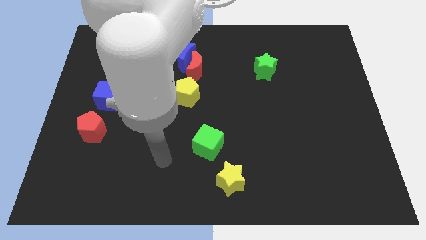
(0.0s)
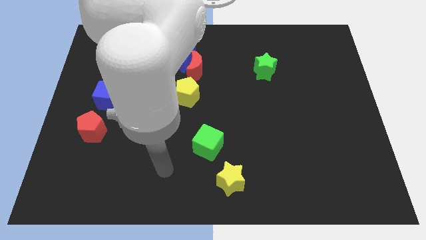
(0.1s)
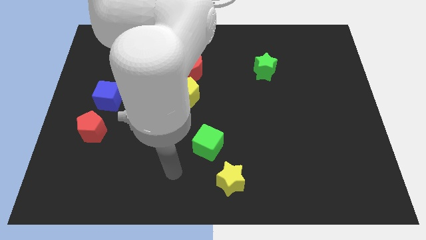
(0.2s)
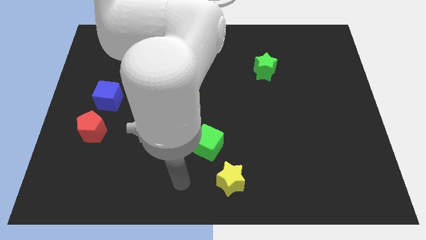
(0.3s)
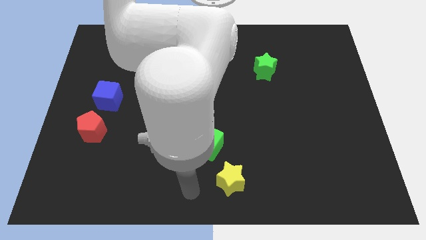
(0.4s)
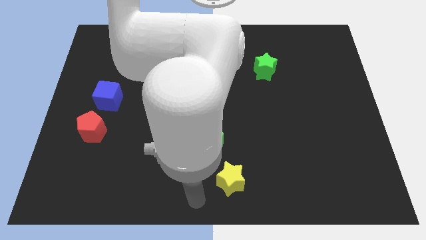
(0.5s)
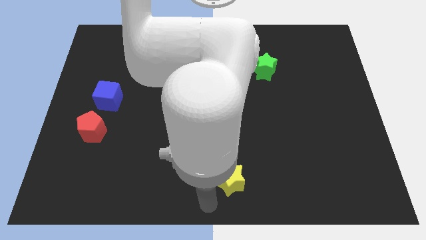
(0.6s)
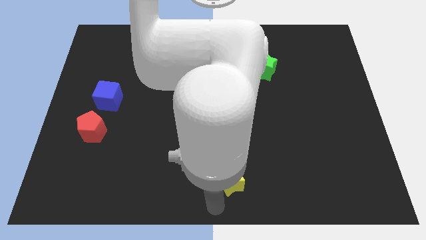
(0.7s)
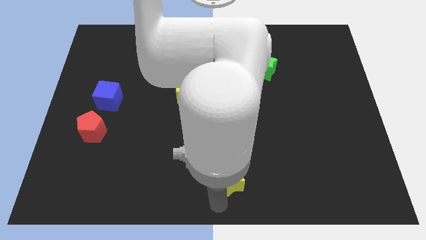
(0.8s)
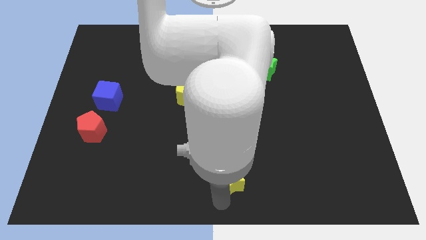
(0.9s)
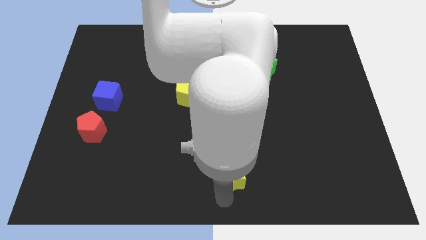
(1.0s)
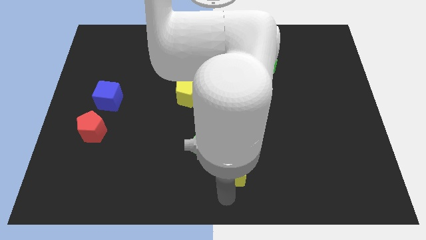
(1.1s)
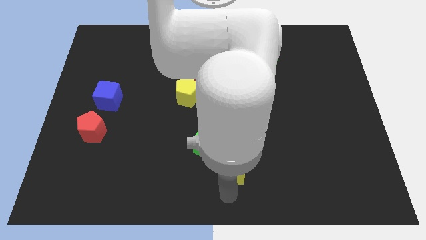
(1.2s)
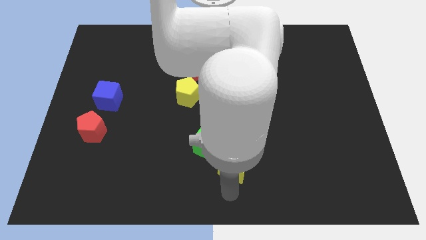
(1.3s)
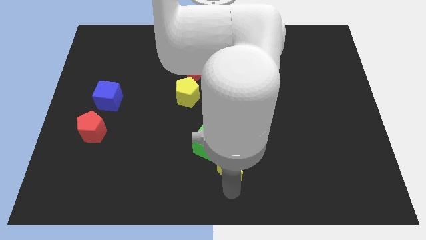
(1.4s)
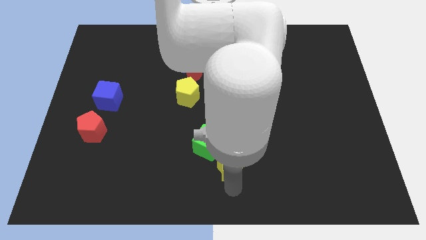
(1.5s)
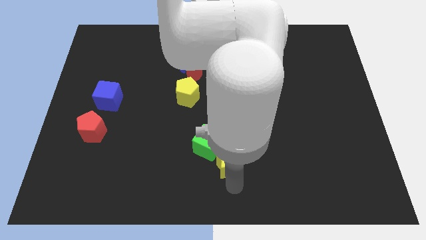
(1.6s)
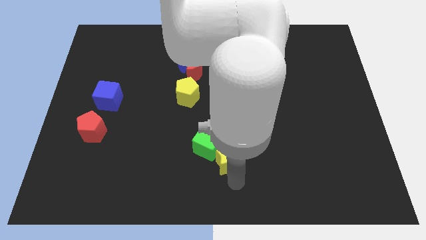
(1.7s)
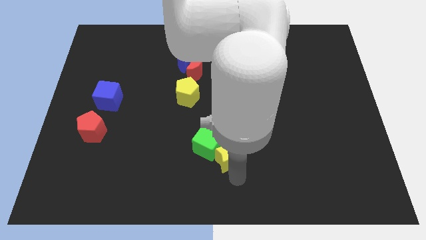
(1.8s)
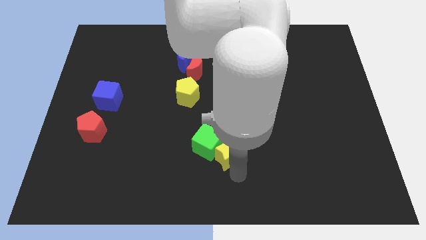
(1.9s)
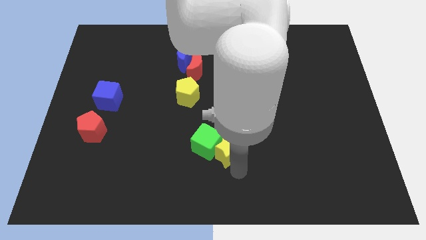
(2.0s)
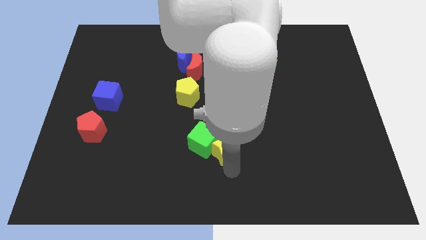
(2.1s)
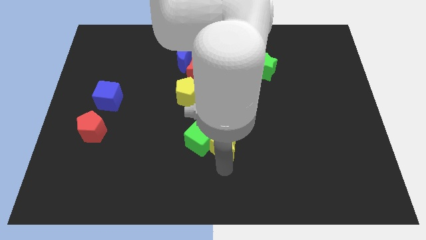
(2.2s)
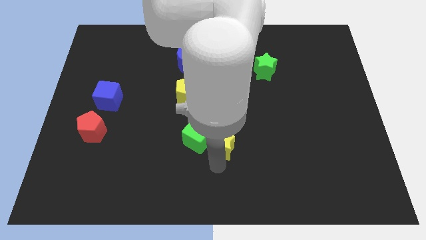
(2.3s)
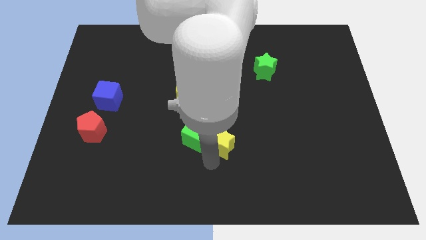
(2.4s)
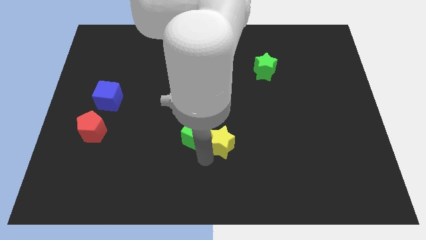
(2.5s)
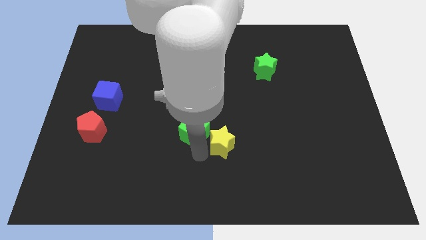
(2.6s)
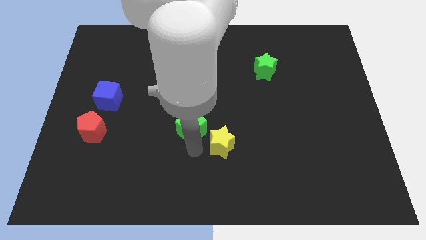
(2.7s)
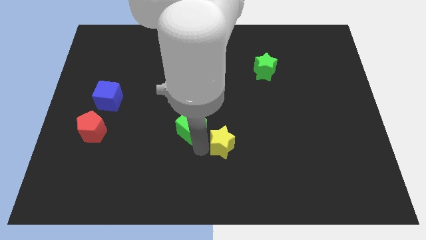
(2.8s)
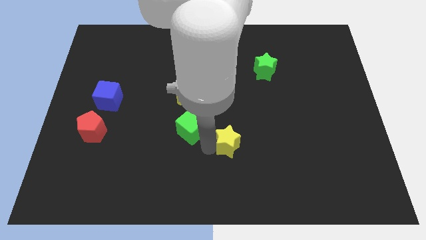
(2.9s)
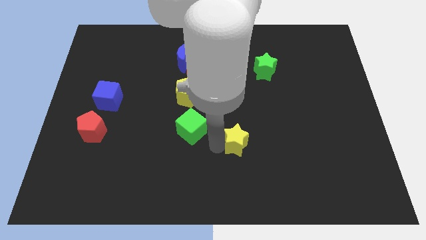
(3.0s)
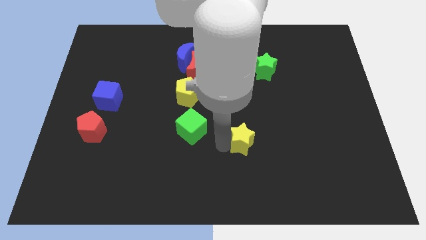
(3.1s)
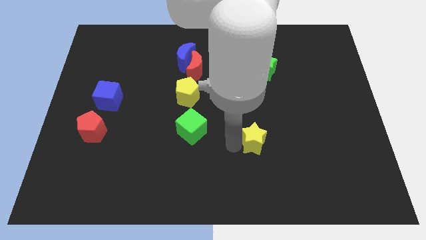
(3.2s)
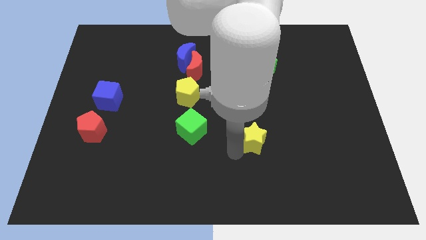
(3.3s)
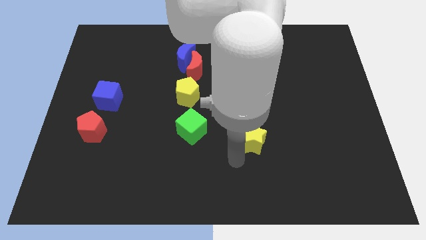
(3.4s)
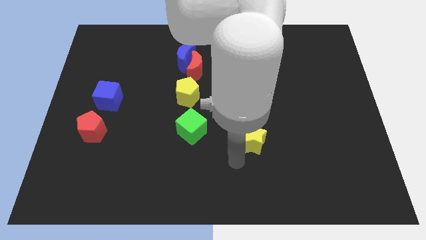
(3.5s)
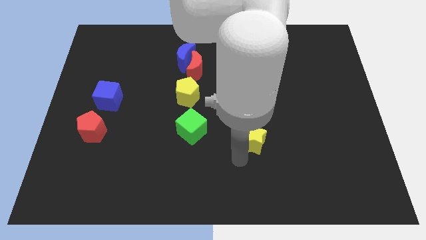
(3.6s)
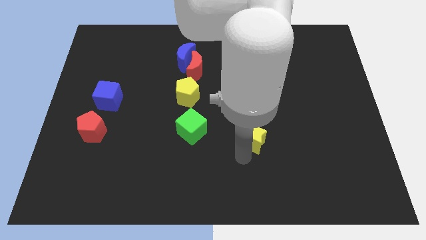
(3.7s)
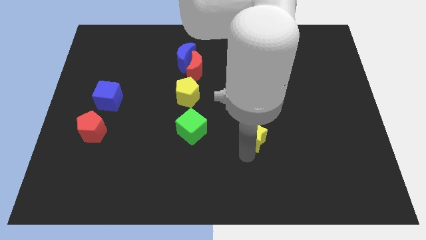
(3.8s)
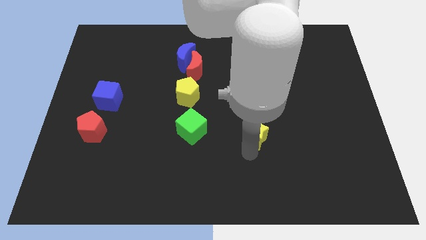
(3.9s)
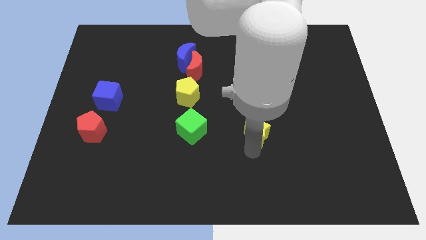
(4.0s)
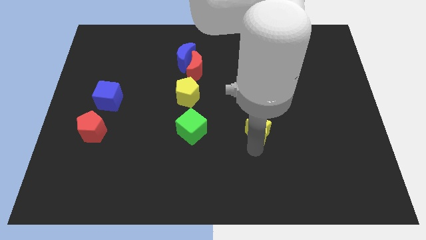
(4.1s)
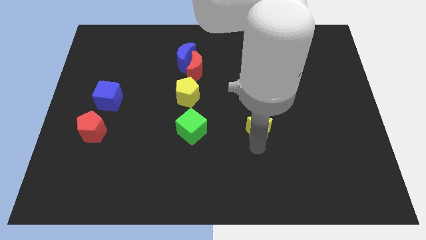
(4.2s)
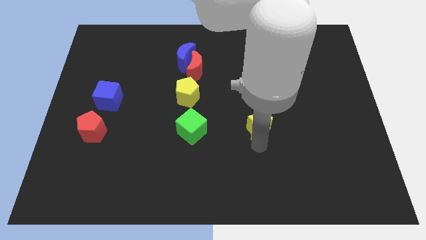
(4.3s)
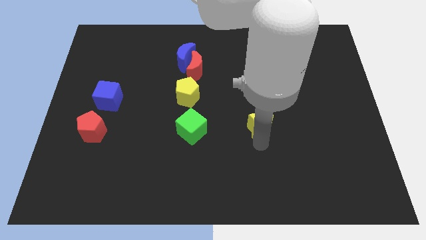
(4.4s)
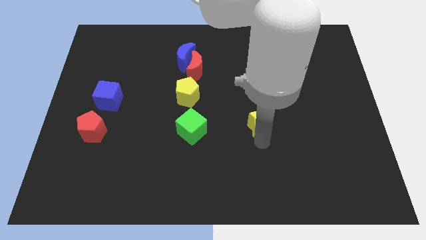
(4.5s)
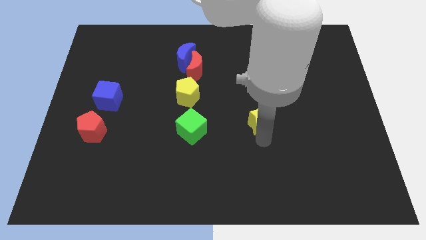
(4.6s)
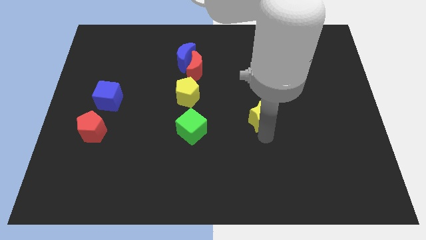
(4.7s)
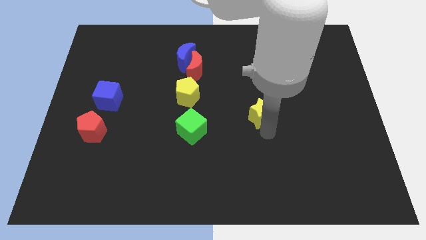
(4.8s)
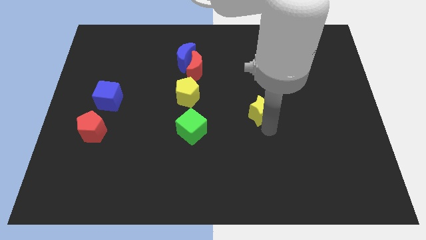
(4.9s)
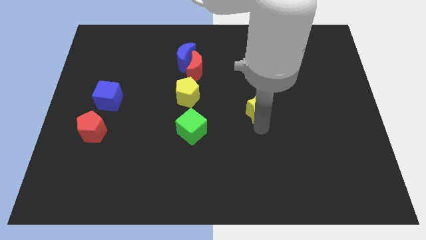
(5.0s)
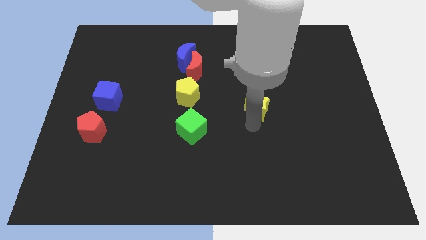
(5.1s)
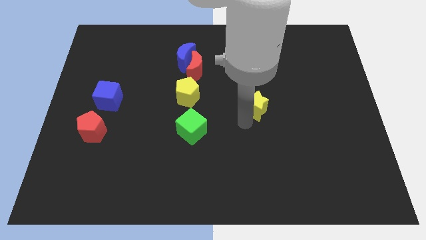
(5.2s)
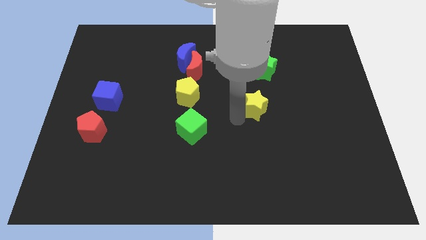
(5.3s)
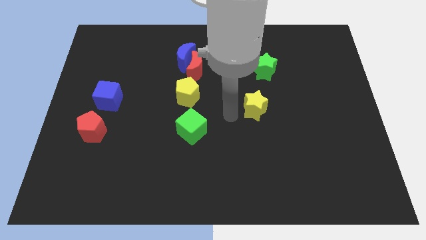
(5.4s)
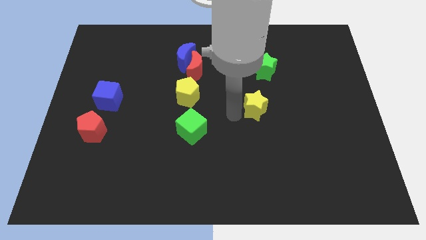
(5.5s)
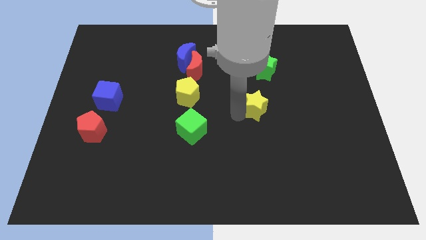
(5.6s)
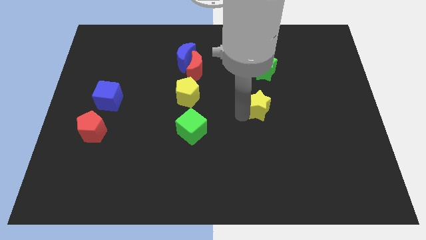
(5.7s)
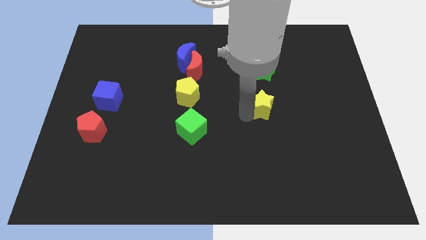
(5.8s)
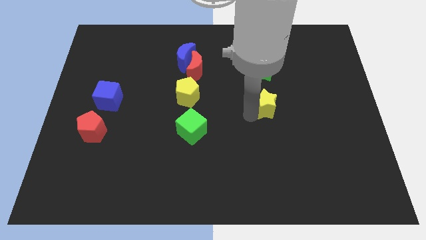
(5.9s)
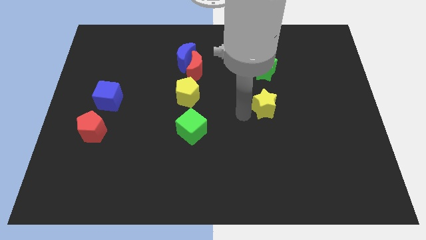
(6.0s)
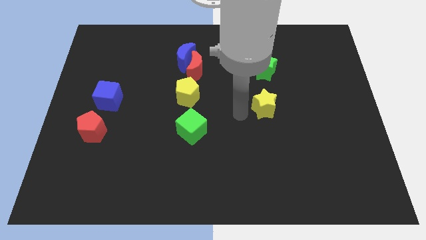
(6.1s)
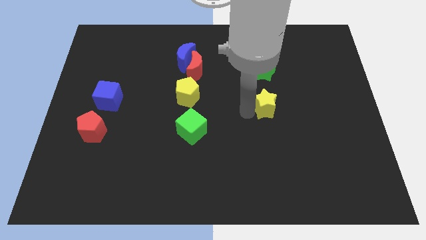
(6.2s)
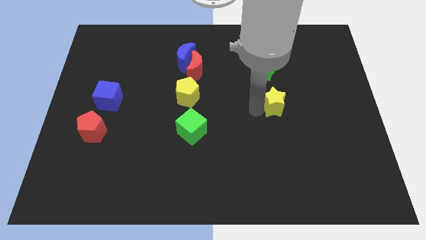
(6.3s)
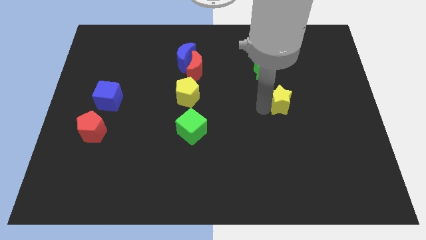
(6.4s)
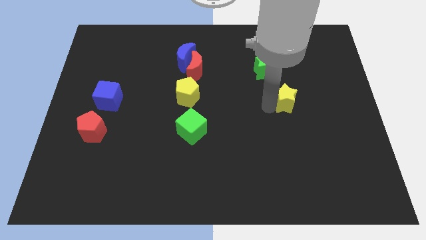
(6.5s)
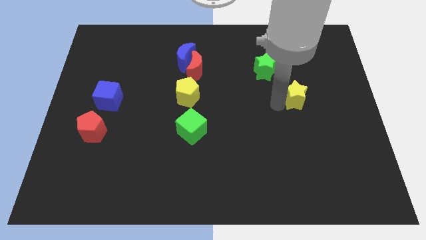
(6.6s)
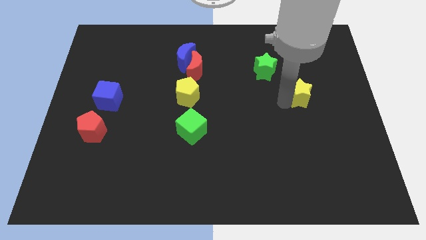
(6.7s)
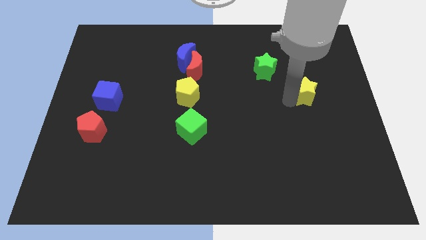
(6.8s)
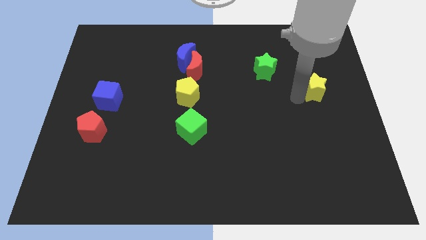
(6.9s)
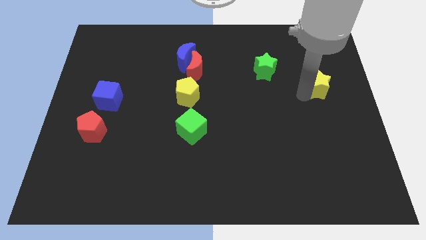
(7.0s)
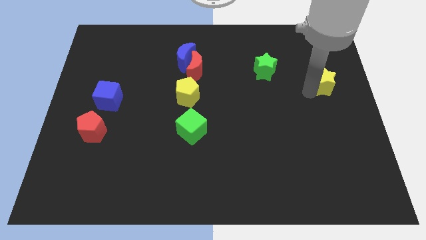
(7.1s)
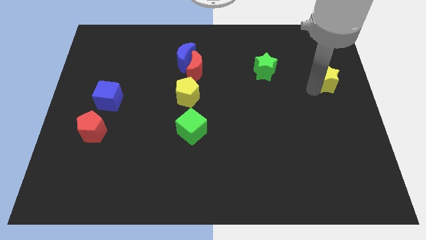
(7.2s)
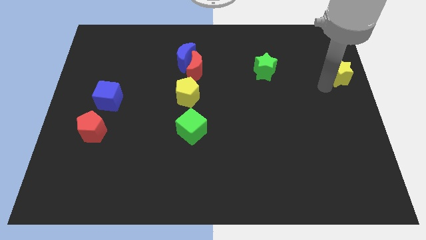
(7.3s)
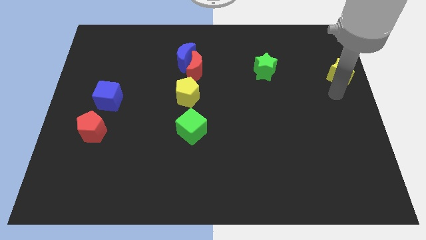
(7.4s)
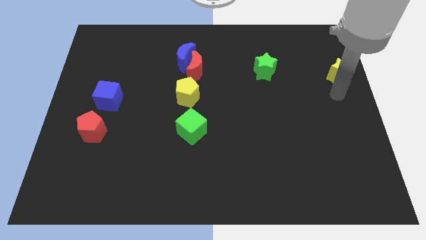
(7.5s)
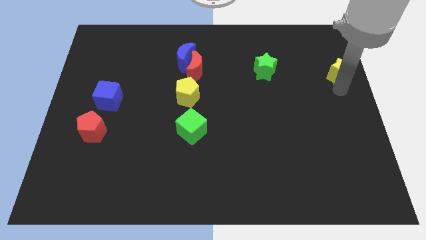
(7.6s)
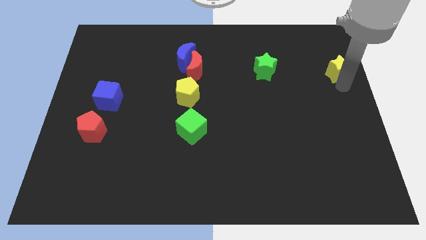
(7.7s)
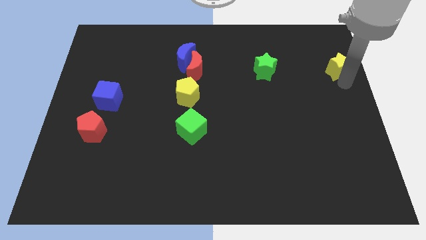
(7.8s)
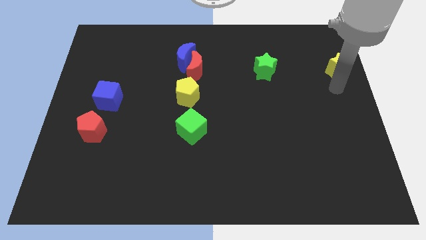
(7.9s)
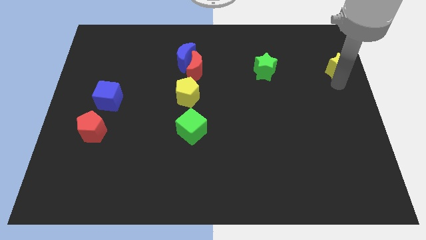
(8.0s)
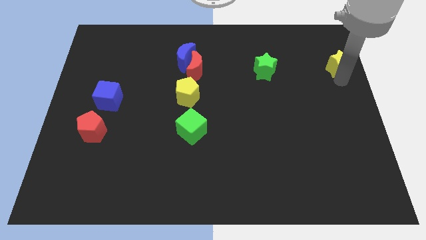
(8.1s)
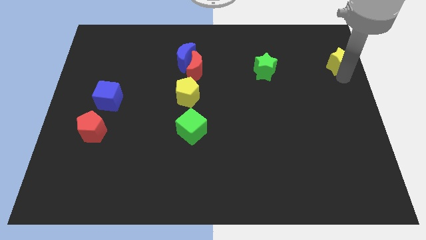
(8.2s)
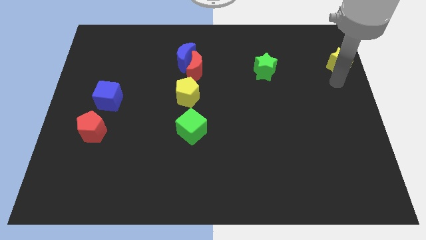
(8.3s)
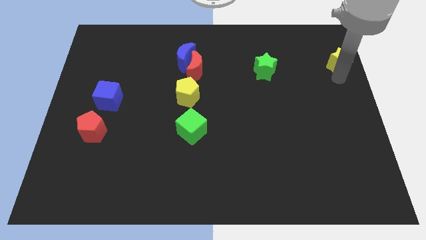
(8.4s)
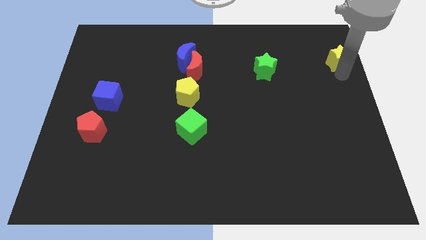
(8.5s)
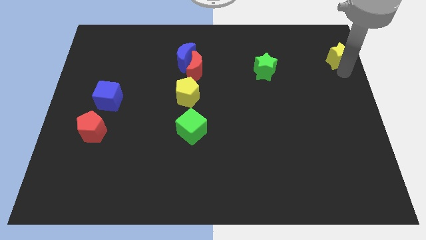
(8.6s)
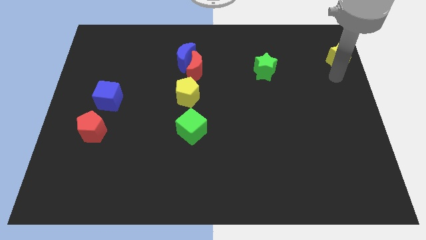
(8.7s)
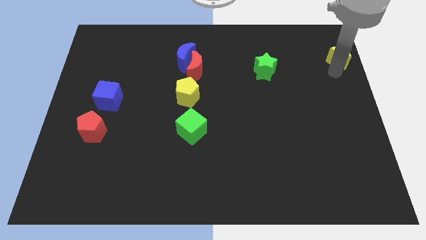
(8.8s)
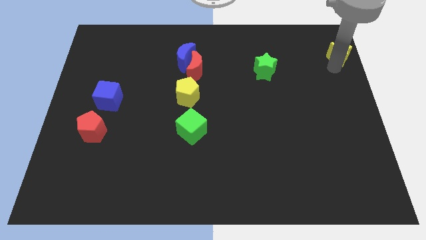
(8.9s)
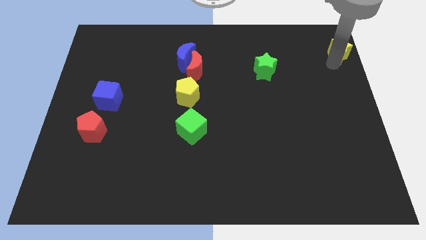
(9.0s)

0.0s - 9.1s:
move the yellow star to the top right corner
